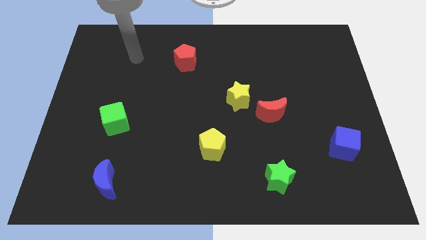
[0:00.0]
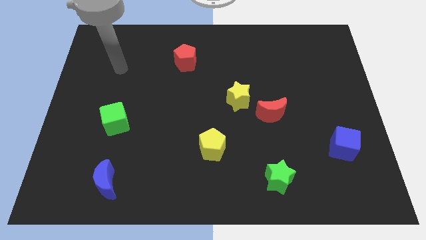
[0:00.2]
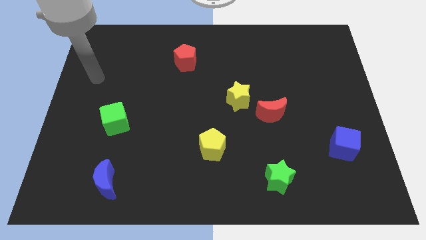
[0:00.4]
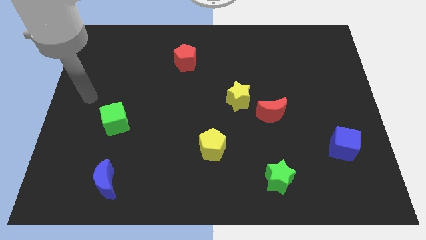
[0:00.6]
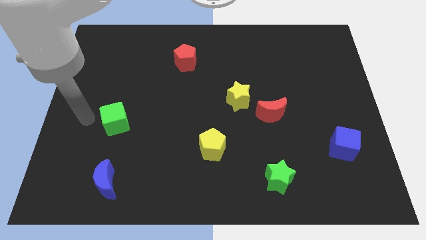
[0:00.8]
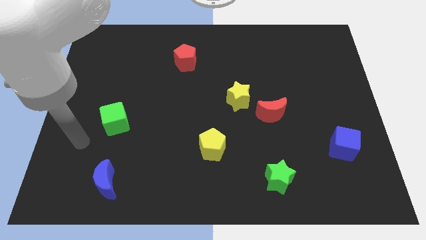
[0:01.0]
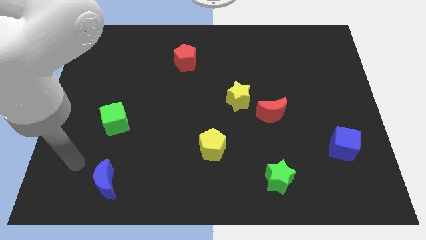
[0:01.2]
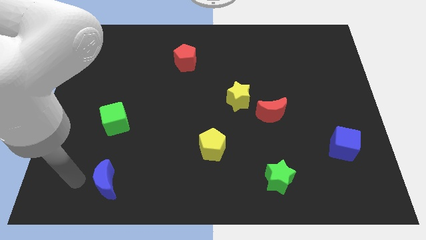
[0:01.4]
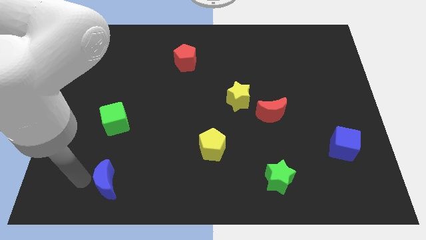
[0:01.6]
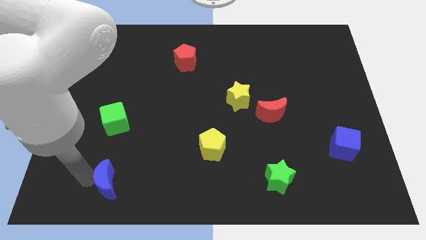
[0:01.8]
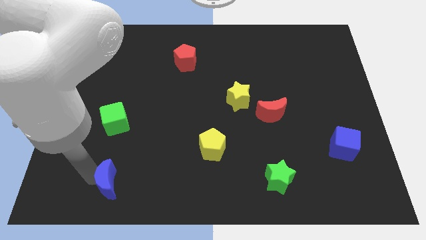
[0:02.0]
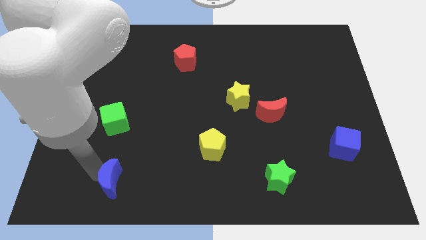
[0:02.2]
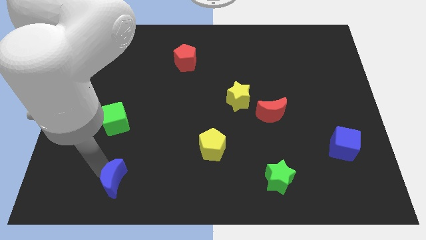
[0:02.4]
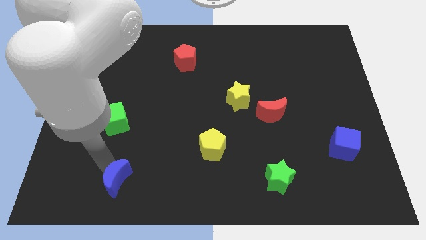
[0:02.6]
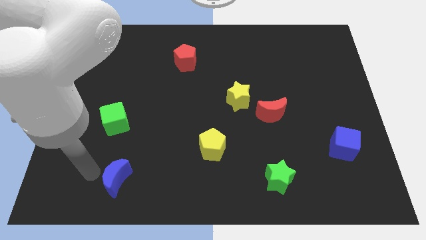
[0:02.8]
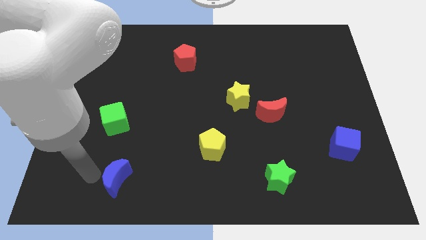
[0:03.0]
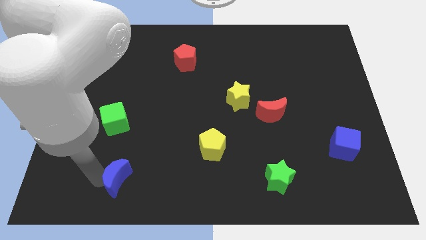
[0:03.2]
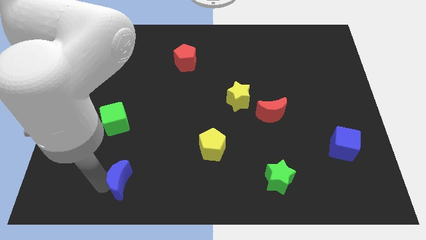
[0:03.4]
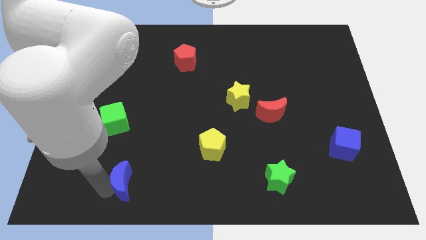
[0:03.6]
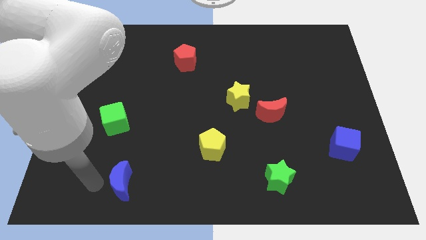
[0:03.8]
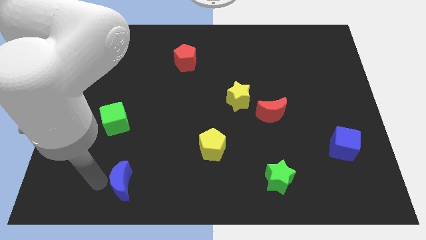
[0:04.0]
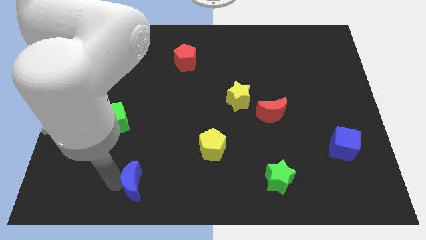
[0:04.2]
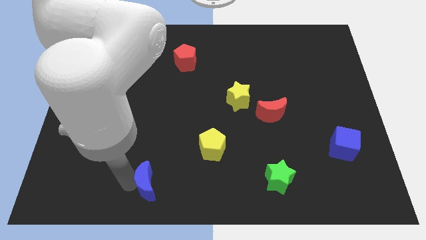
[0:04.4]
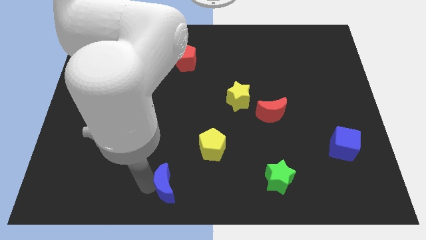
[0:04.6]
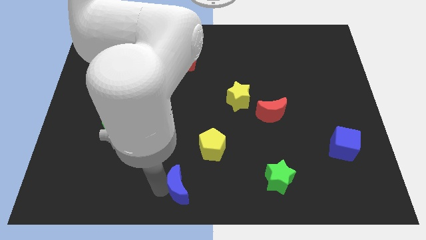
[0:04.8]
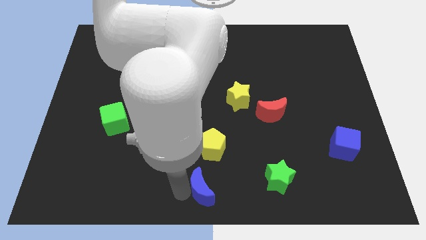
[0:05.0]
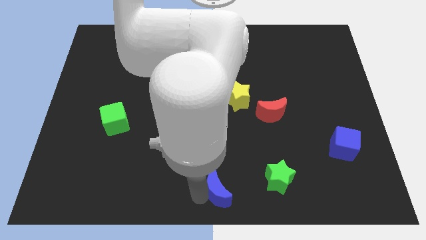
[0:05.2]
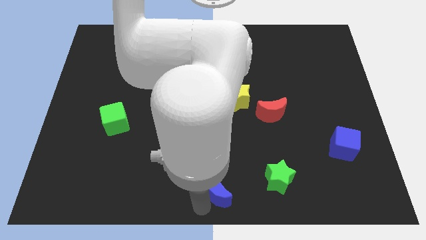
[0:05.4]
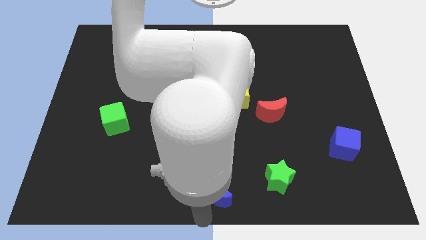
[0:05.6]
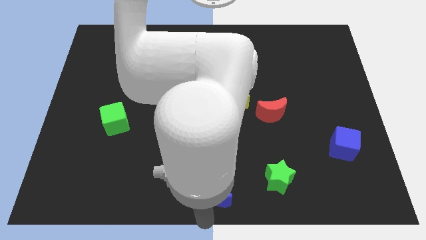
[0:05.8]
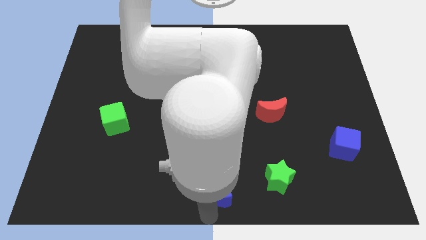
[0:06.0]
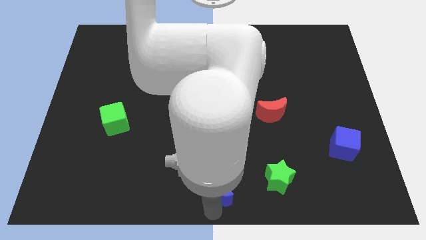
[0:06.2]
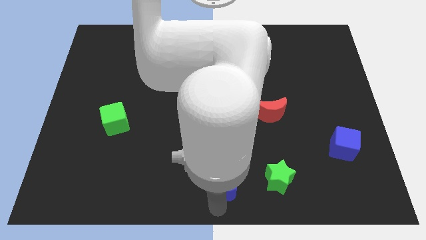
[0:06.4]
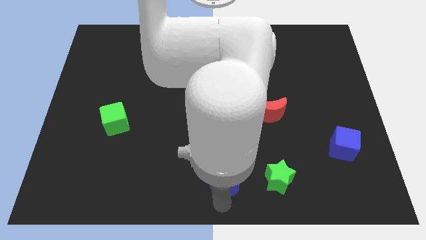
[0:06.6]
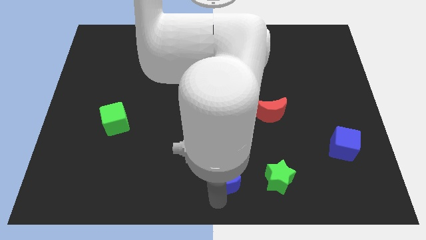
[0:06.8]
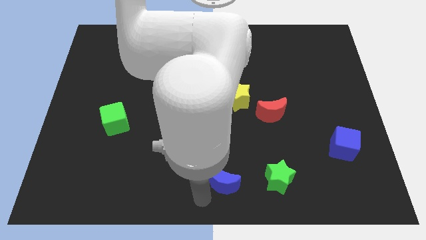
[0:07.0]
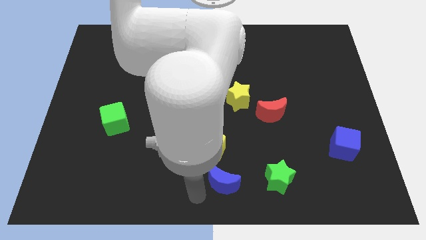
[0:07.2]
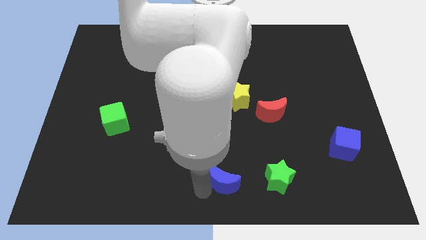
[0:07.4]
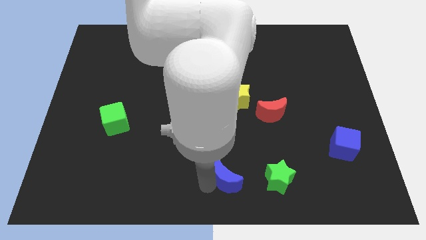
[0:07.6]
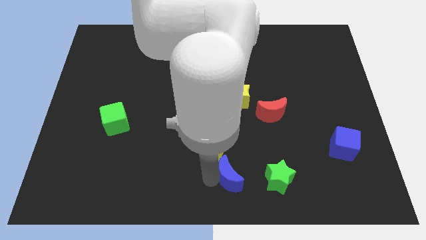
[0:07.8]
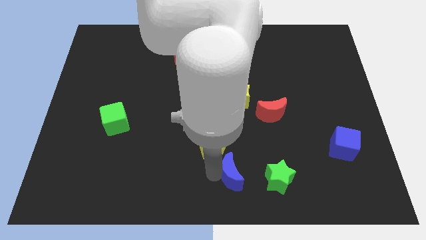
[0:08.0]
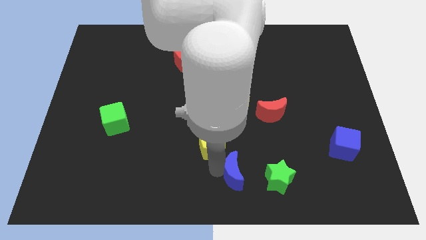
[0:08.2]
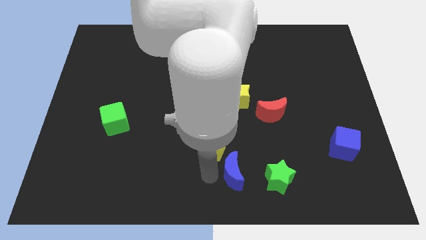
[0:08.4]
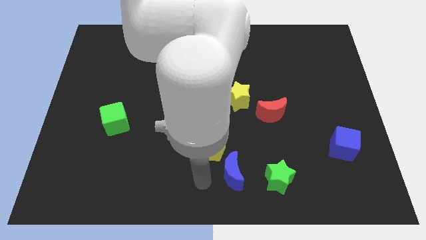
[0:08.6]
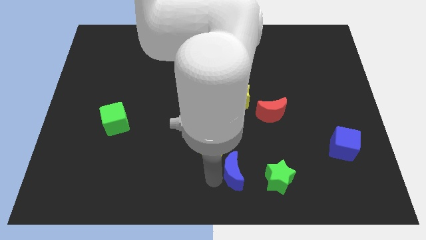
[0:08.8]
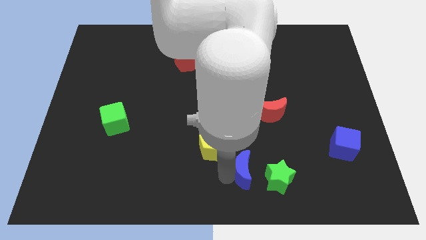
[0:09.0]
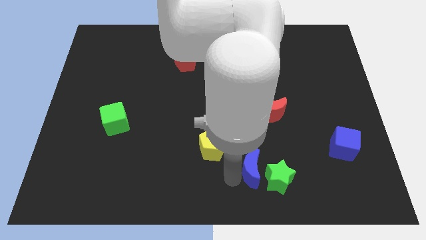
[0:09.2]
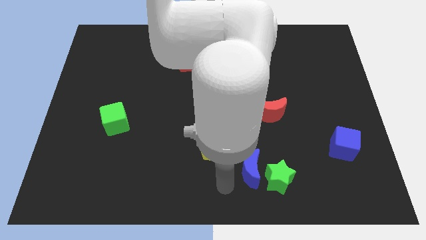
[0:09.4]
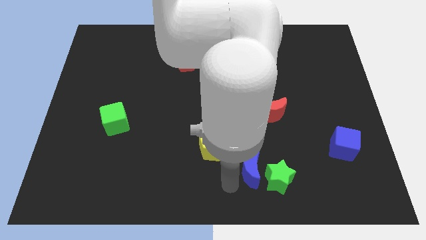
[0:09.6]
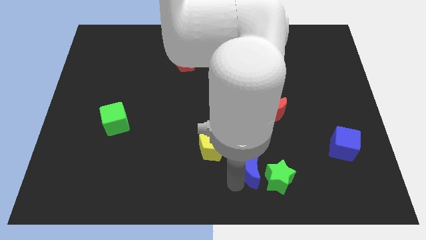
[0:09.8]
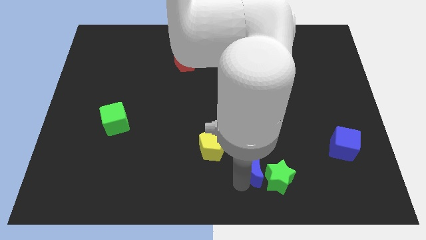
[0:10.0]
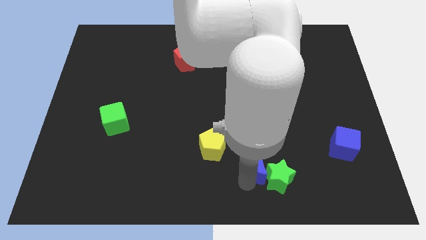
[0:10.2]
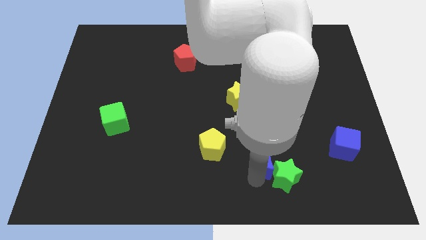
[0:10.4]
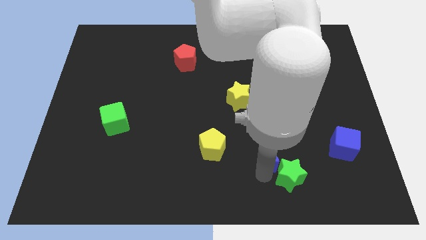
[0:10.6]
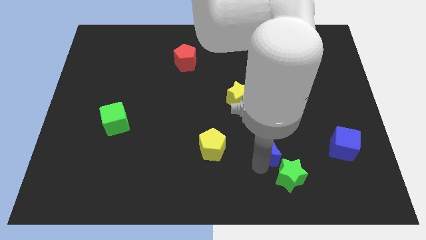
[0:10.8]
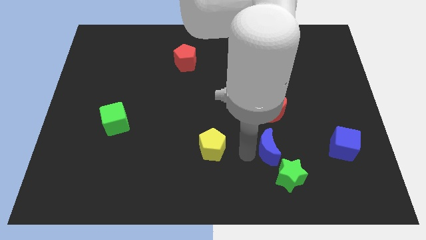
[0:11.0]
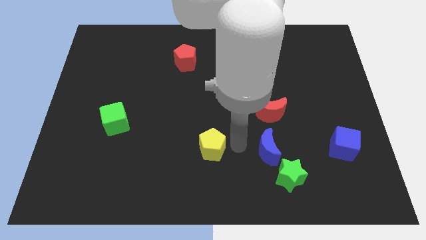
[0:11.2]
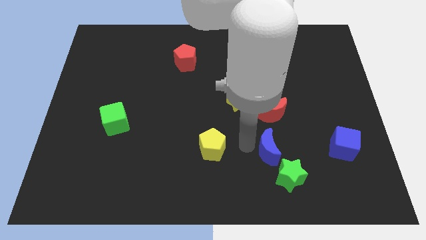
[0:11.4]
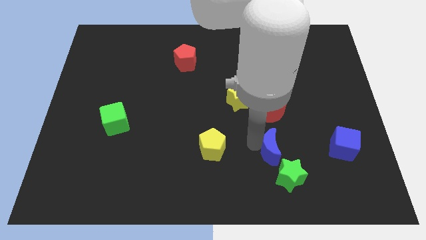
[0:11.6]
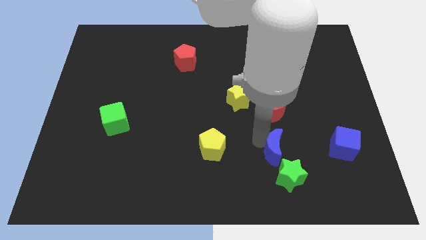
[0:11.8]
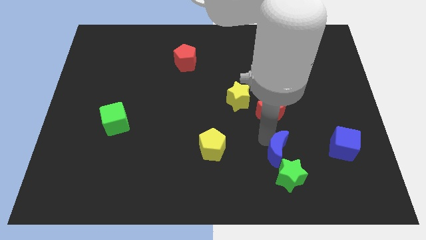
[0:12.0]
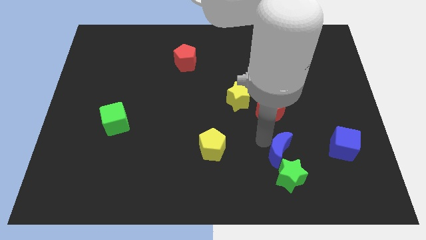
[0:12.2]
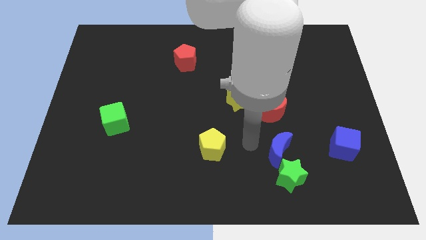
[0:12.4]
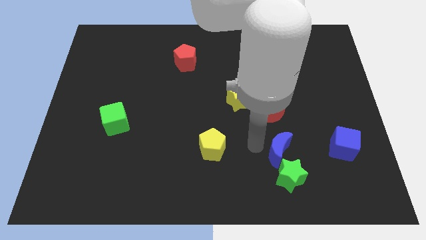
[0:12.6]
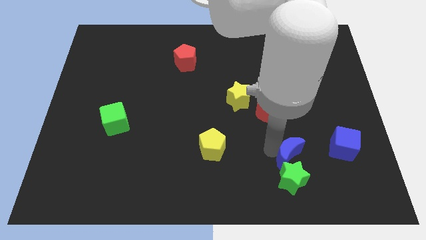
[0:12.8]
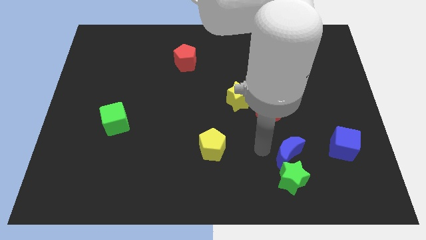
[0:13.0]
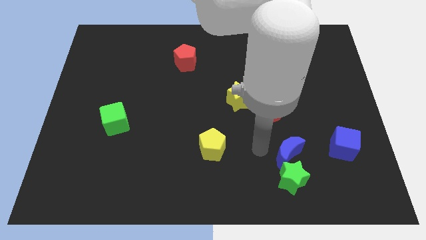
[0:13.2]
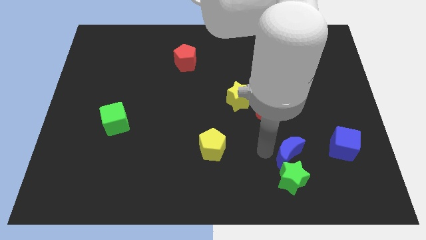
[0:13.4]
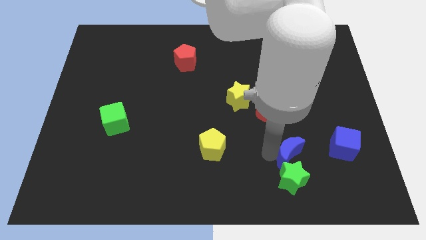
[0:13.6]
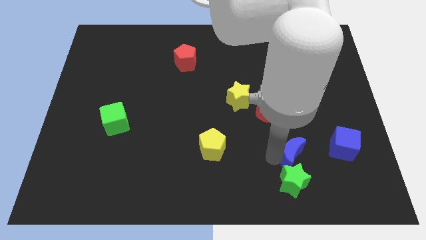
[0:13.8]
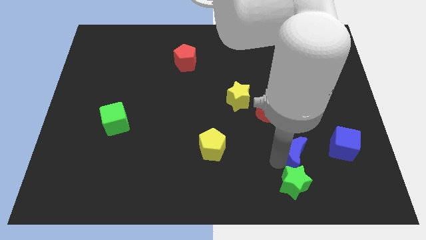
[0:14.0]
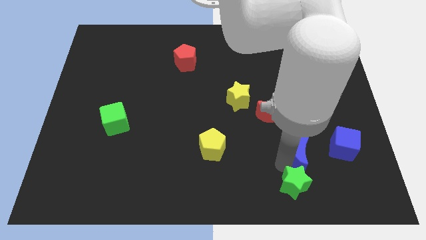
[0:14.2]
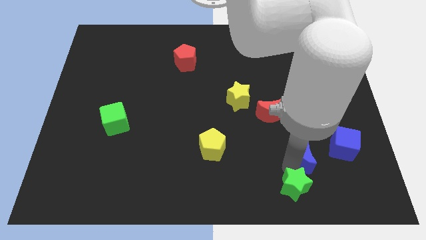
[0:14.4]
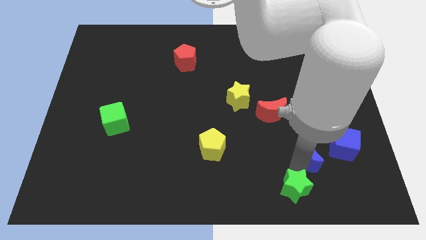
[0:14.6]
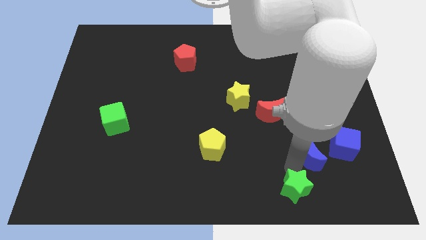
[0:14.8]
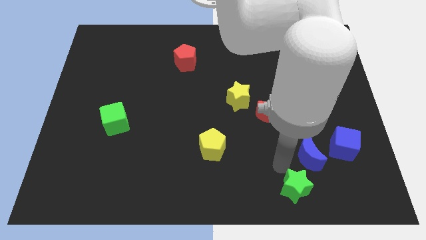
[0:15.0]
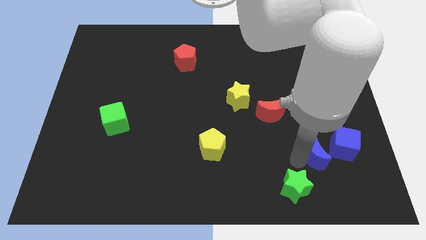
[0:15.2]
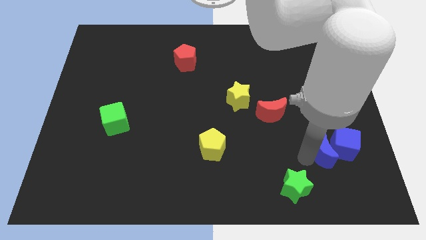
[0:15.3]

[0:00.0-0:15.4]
put the blue moon next to the blue cube

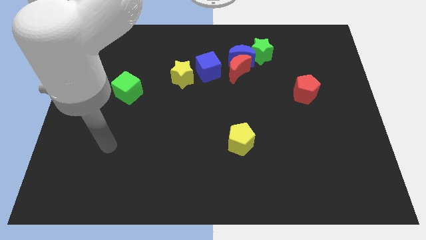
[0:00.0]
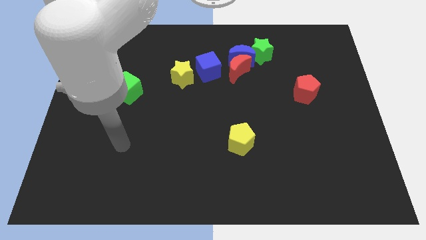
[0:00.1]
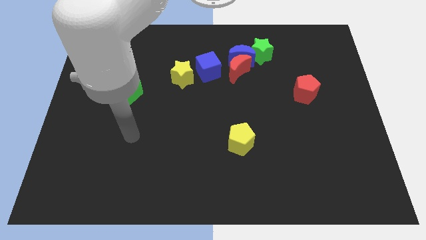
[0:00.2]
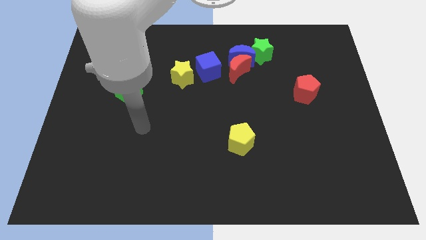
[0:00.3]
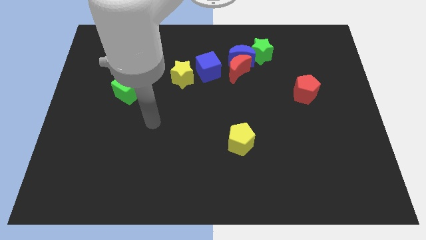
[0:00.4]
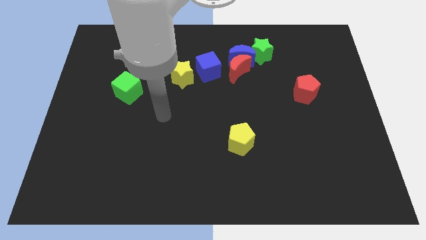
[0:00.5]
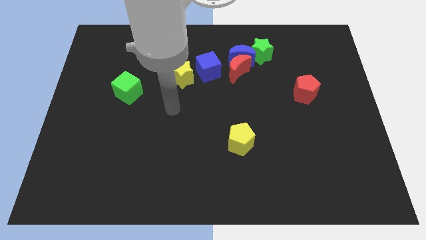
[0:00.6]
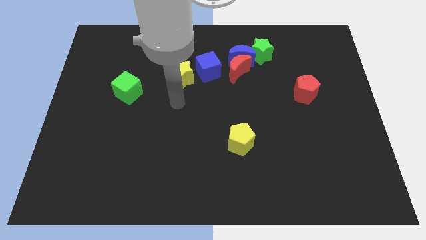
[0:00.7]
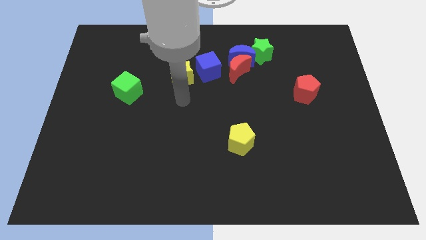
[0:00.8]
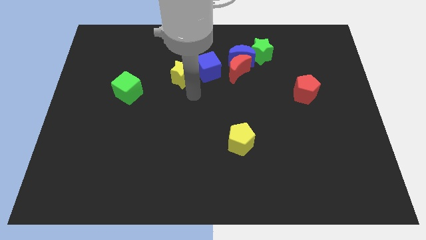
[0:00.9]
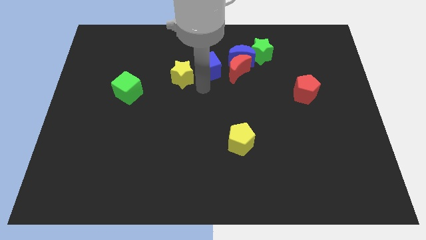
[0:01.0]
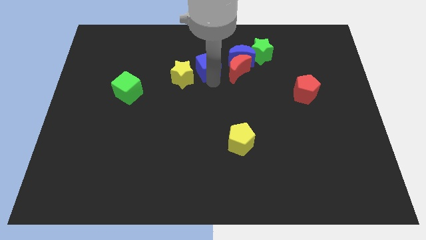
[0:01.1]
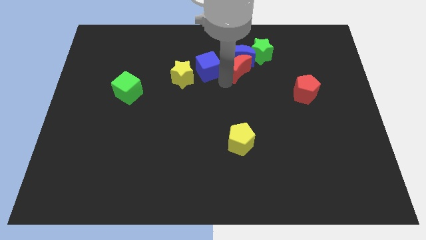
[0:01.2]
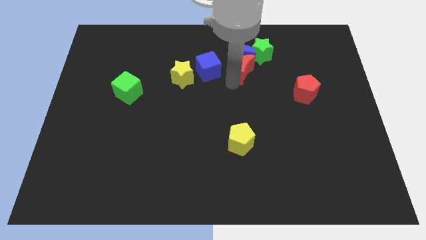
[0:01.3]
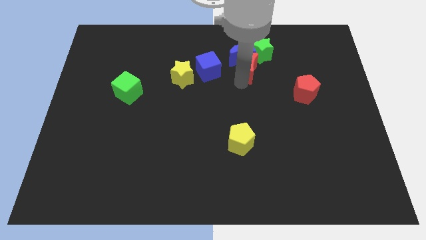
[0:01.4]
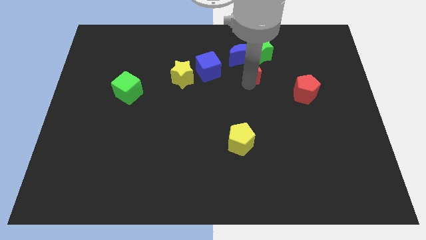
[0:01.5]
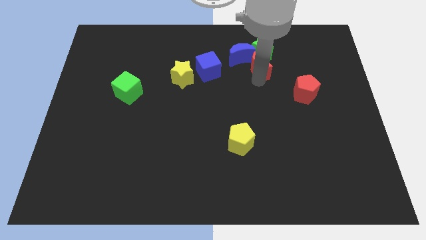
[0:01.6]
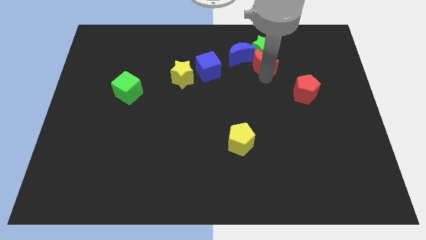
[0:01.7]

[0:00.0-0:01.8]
slide the green star close to the red moon
